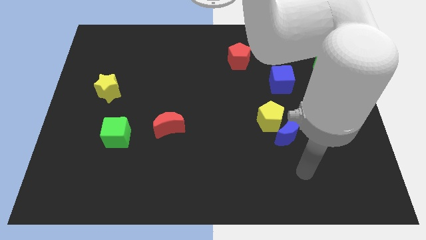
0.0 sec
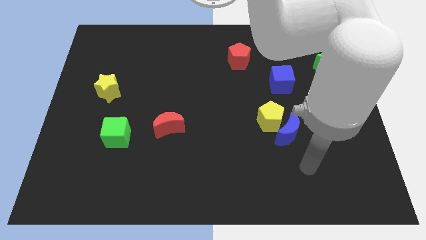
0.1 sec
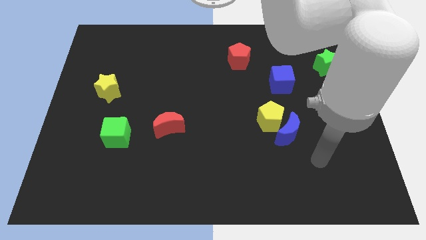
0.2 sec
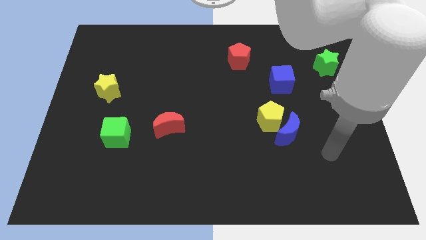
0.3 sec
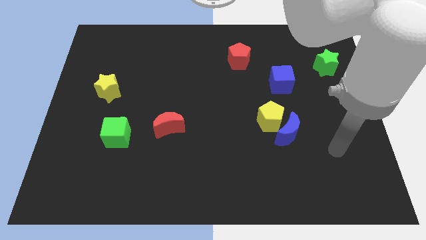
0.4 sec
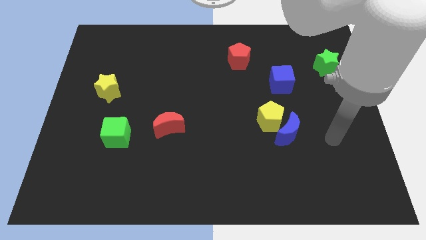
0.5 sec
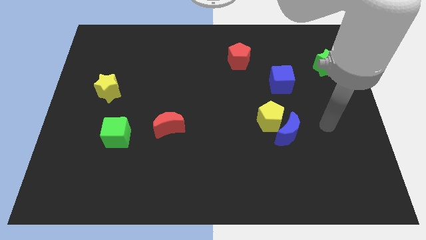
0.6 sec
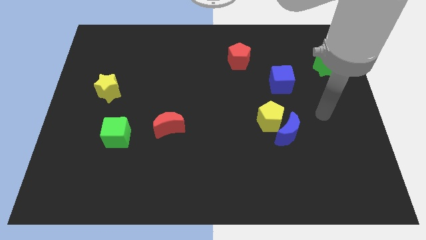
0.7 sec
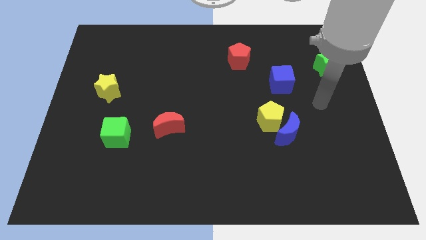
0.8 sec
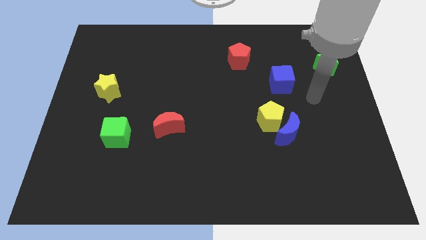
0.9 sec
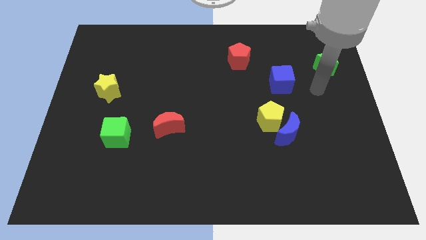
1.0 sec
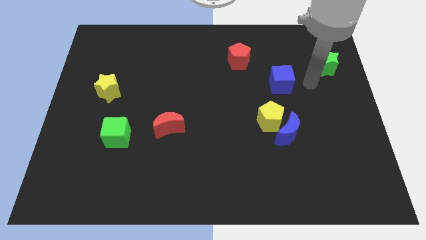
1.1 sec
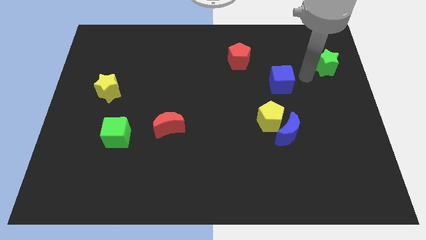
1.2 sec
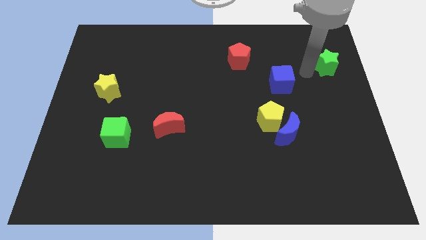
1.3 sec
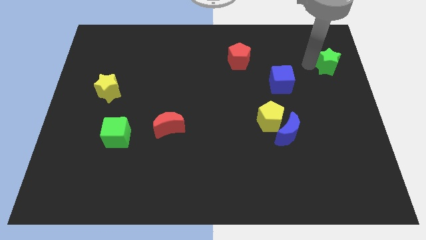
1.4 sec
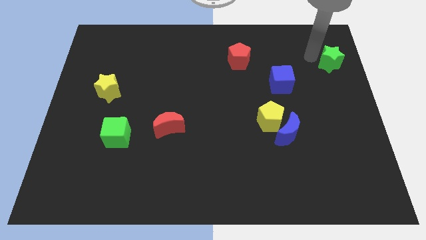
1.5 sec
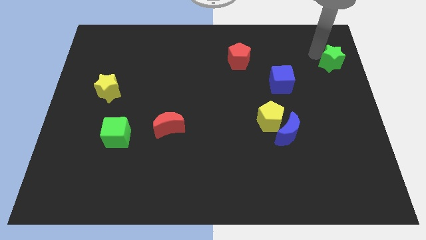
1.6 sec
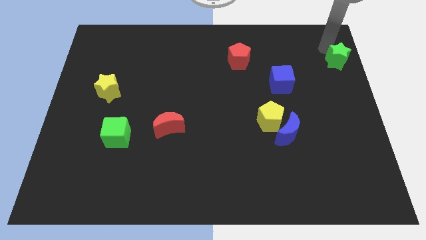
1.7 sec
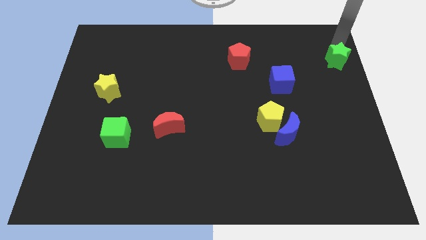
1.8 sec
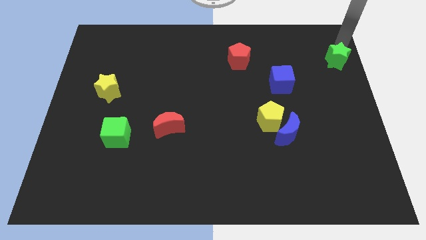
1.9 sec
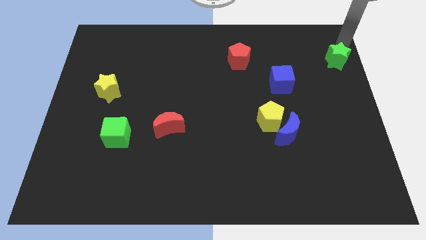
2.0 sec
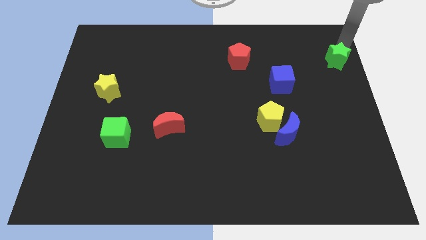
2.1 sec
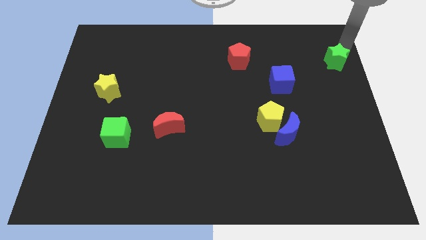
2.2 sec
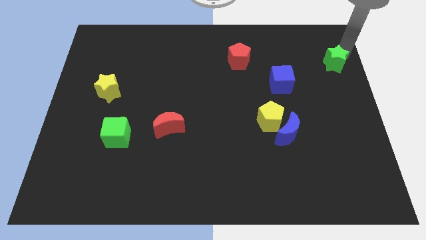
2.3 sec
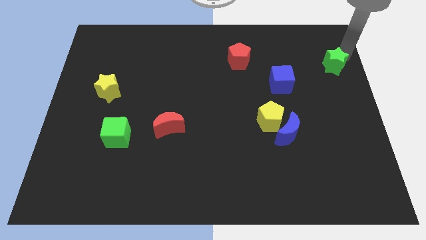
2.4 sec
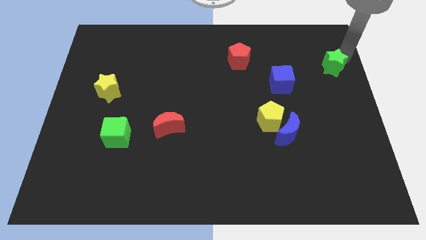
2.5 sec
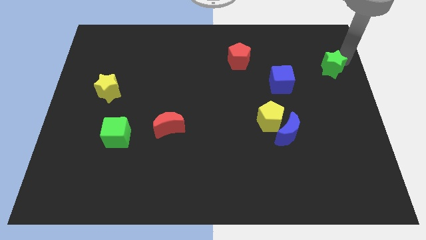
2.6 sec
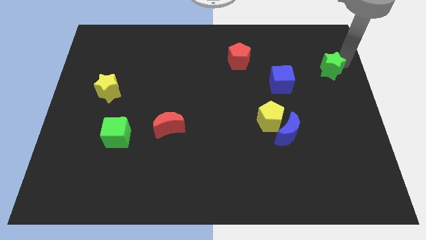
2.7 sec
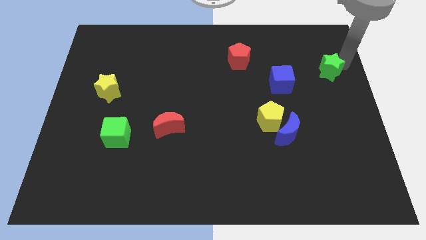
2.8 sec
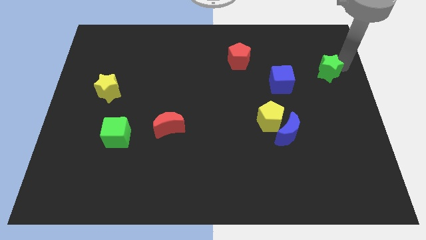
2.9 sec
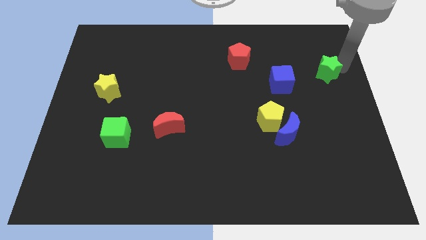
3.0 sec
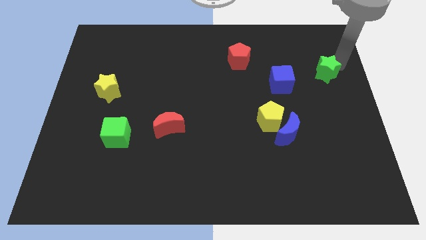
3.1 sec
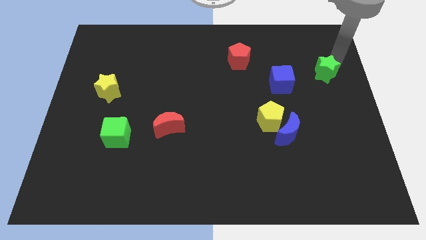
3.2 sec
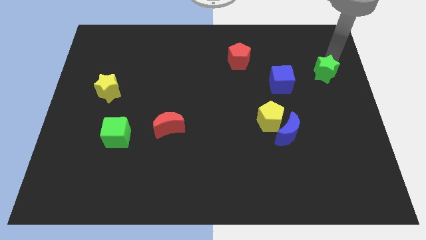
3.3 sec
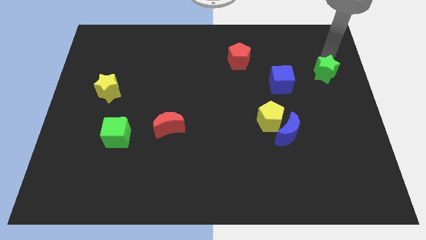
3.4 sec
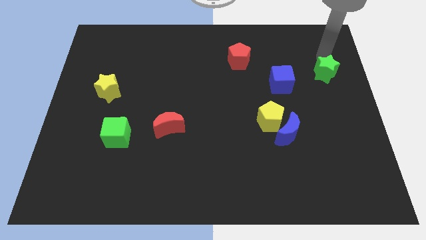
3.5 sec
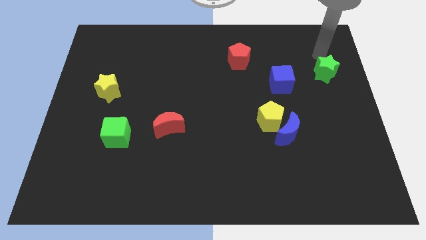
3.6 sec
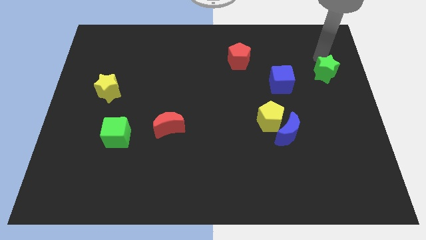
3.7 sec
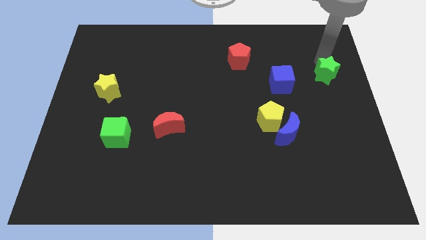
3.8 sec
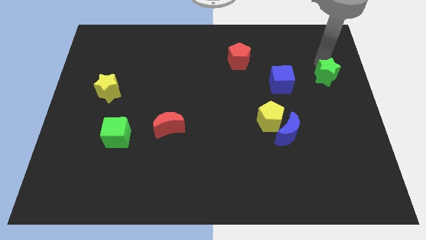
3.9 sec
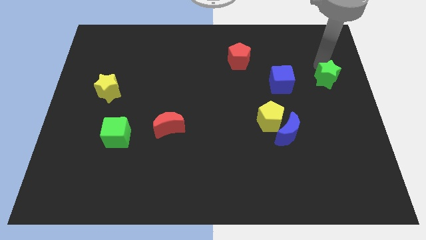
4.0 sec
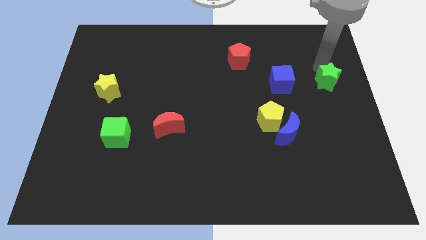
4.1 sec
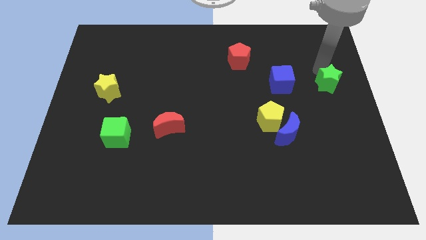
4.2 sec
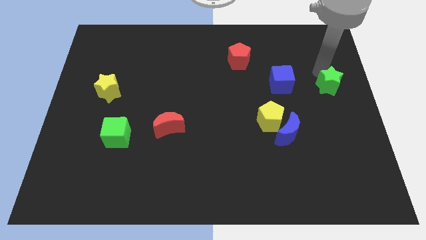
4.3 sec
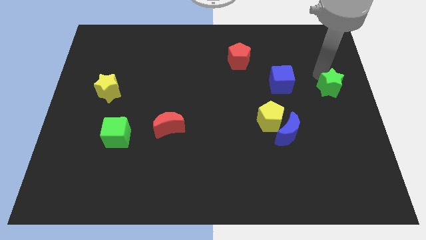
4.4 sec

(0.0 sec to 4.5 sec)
slide the green star down somewhat

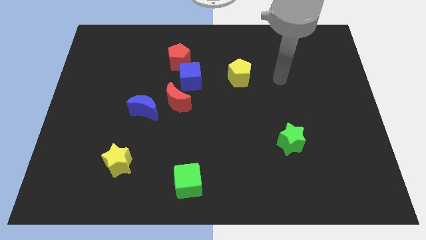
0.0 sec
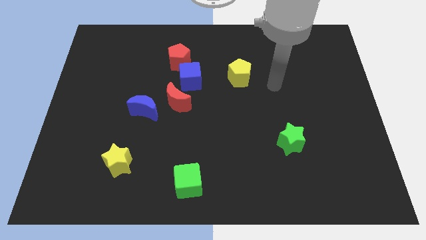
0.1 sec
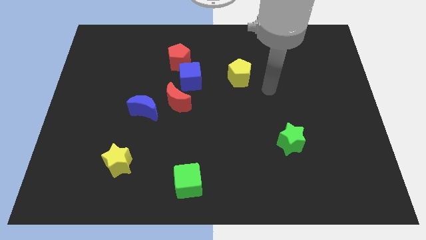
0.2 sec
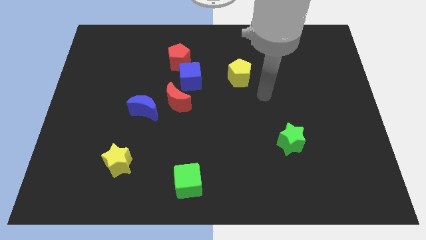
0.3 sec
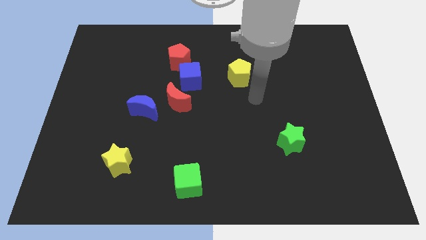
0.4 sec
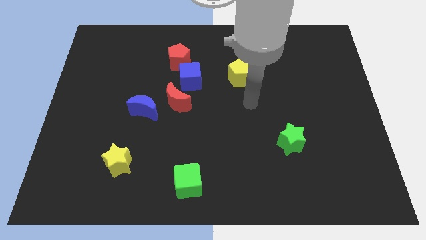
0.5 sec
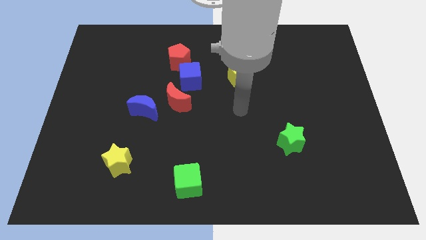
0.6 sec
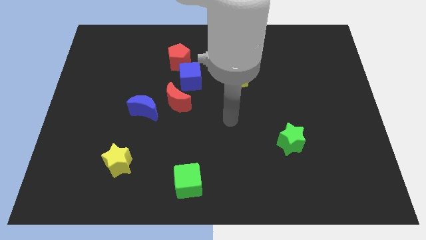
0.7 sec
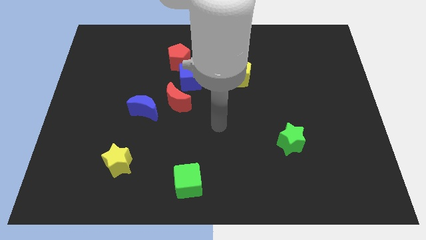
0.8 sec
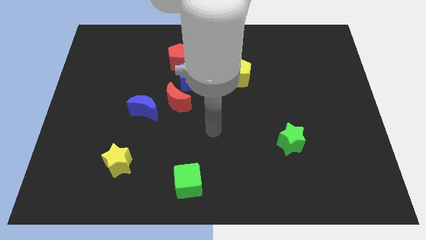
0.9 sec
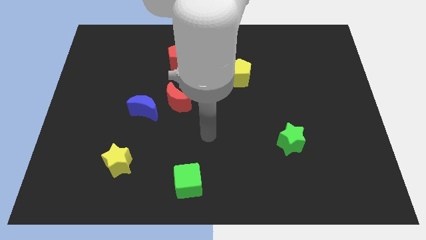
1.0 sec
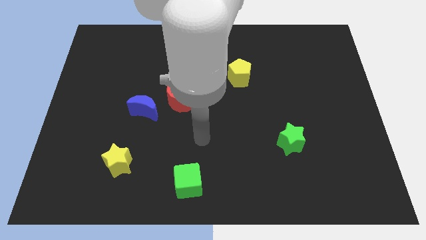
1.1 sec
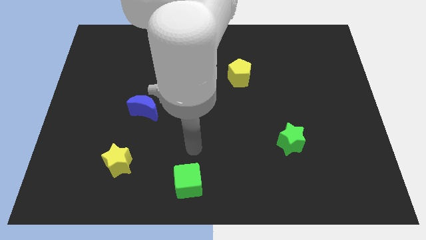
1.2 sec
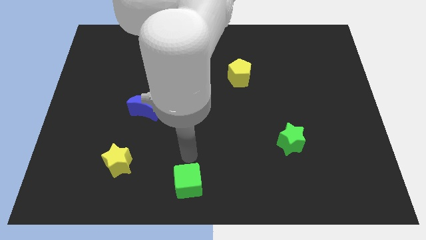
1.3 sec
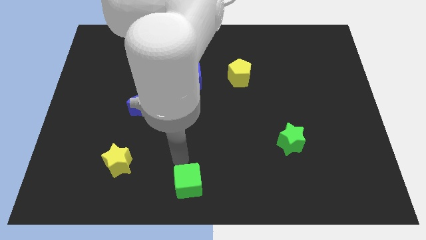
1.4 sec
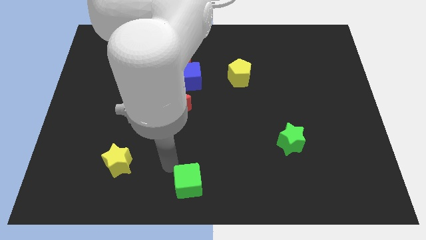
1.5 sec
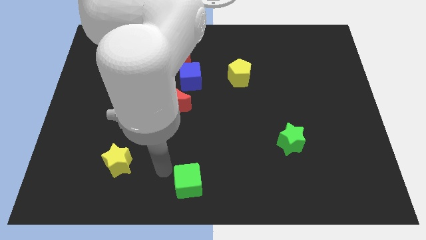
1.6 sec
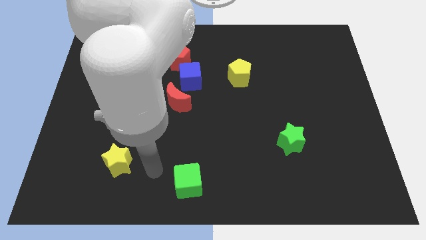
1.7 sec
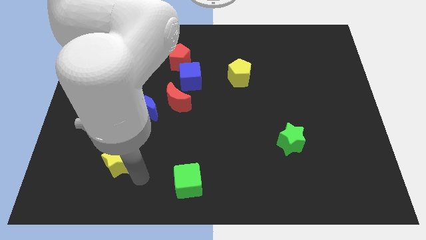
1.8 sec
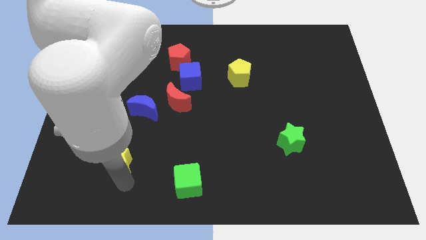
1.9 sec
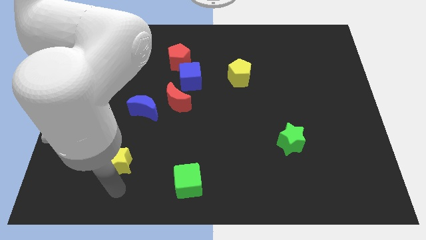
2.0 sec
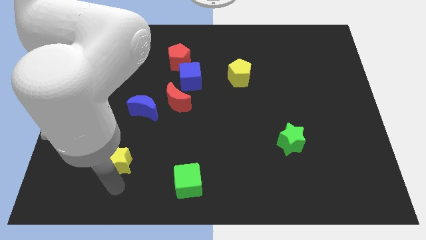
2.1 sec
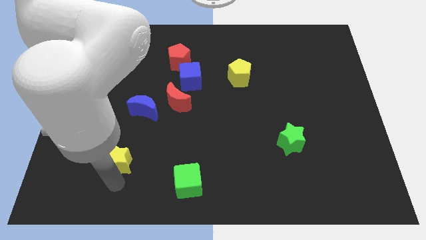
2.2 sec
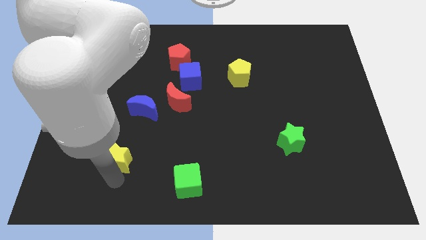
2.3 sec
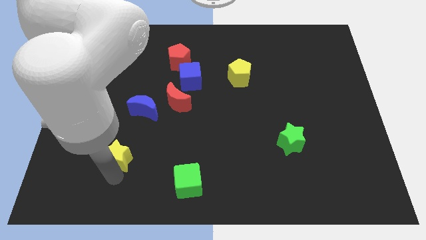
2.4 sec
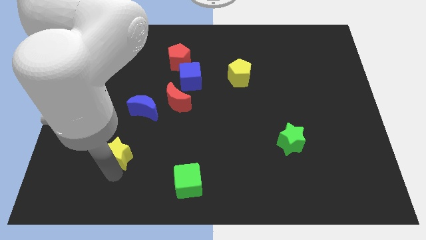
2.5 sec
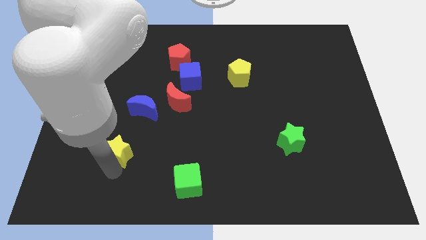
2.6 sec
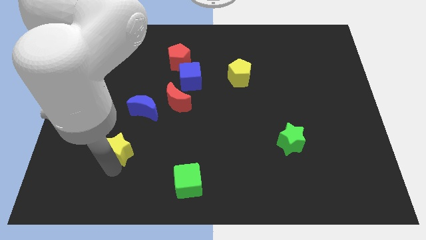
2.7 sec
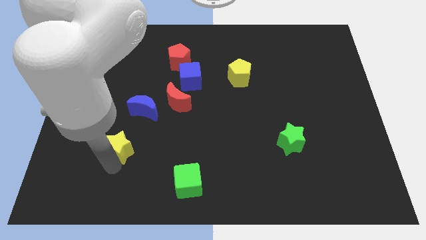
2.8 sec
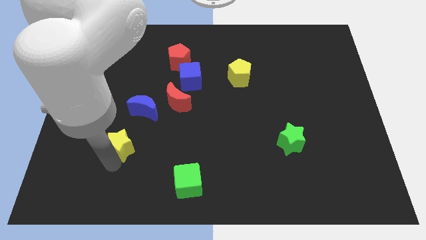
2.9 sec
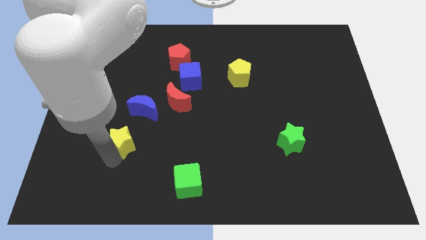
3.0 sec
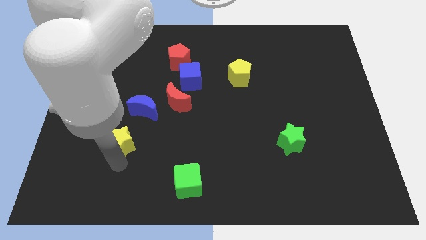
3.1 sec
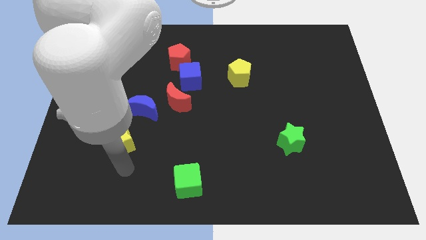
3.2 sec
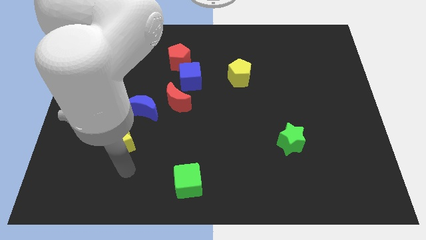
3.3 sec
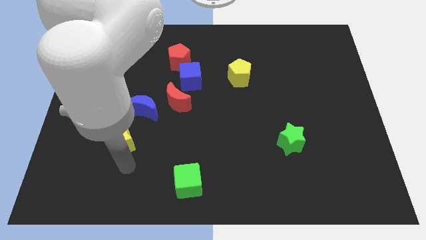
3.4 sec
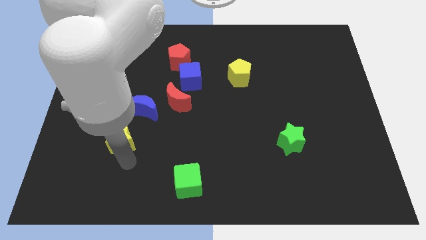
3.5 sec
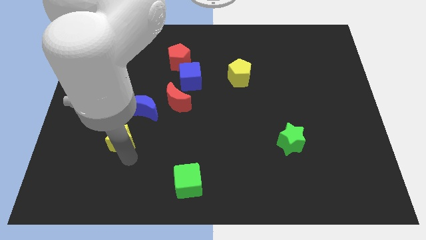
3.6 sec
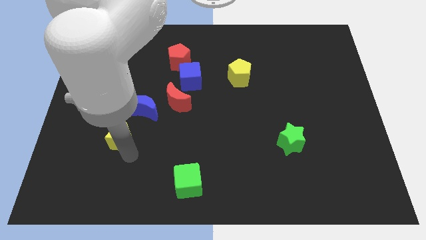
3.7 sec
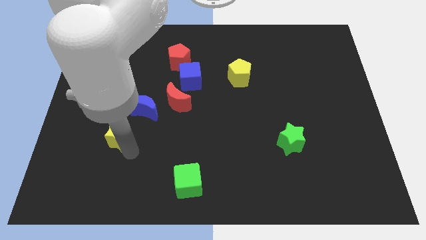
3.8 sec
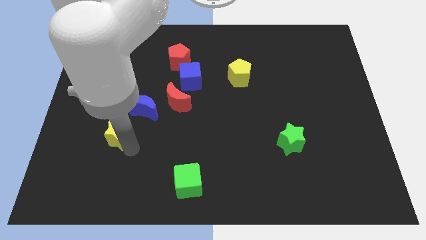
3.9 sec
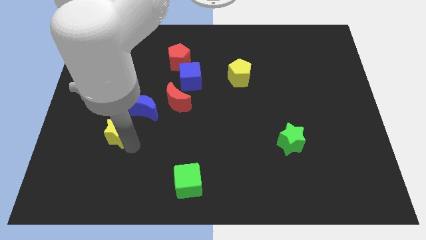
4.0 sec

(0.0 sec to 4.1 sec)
slightly move the yellow star upwards
